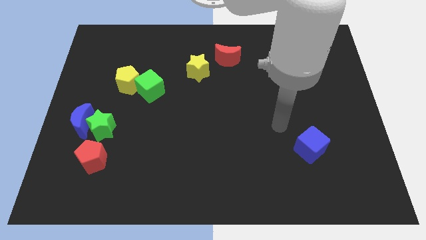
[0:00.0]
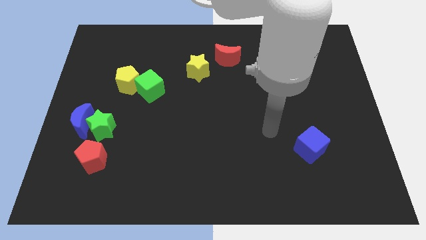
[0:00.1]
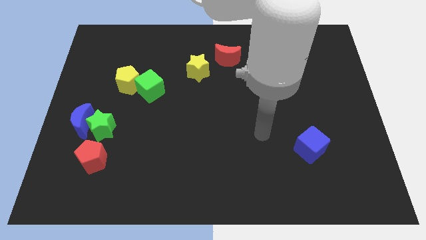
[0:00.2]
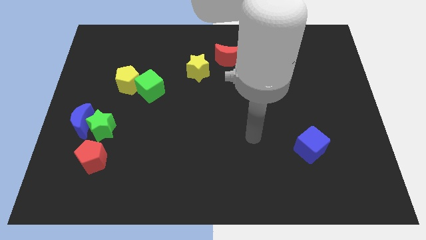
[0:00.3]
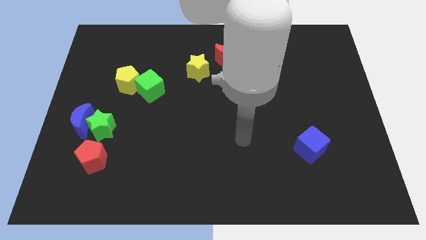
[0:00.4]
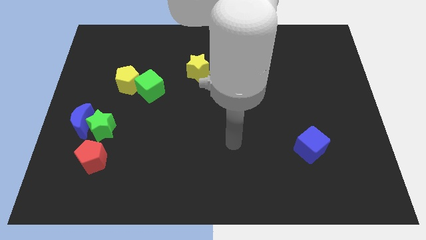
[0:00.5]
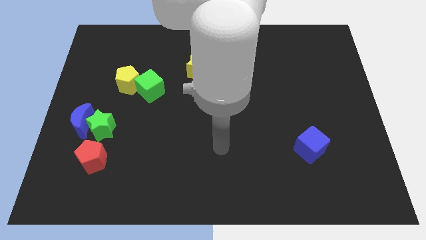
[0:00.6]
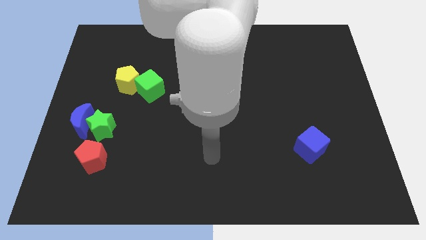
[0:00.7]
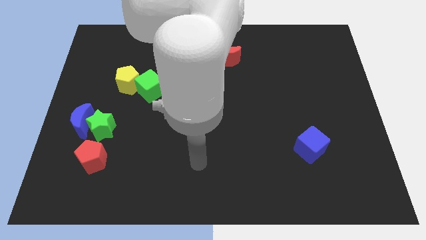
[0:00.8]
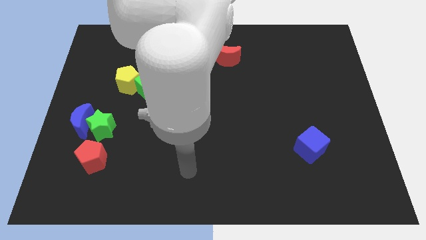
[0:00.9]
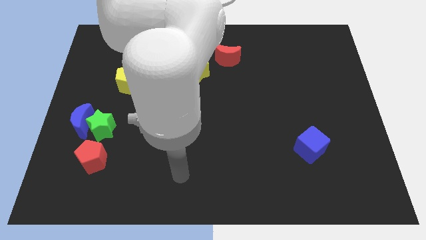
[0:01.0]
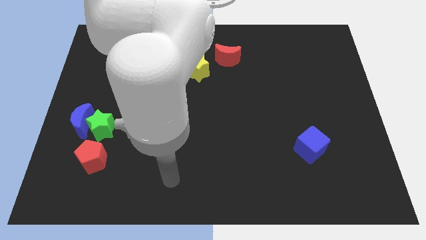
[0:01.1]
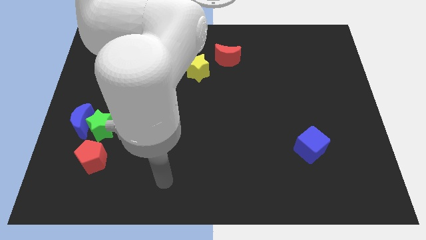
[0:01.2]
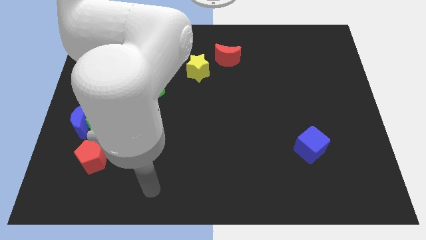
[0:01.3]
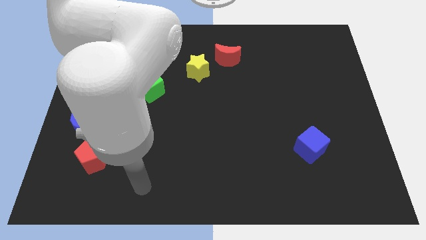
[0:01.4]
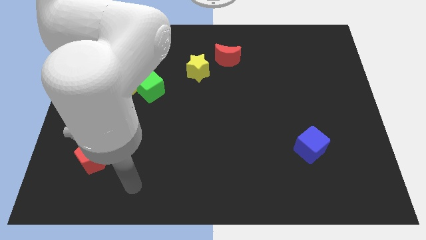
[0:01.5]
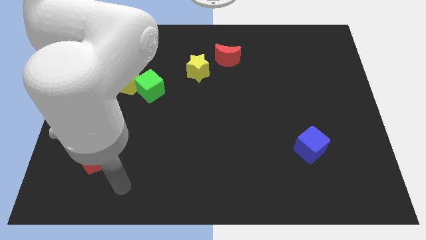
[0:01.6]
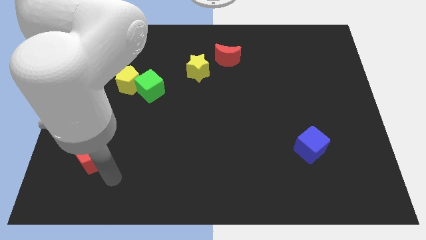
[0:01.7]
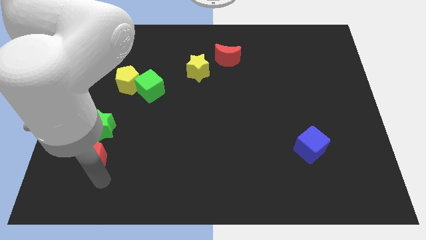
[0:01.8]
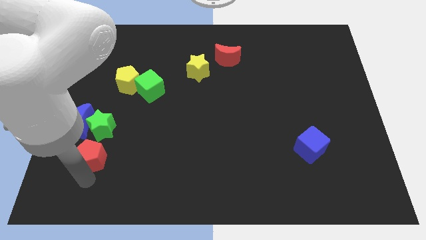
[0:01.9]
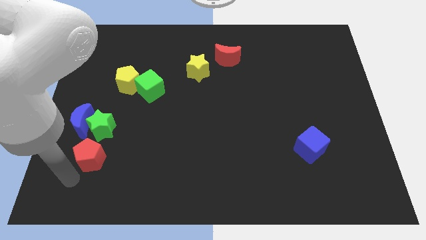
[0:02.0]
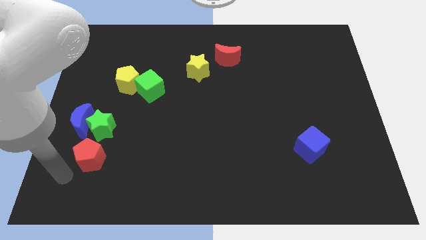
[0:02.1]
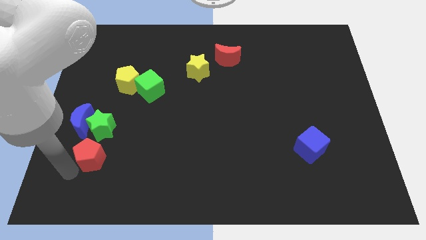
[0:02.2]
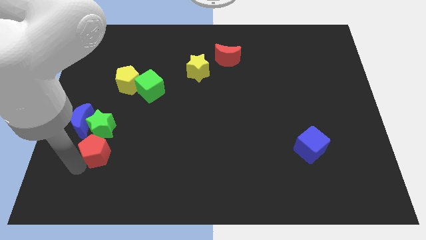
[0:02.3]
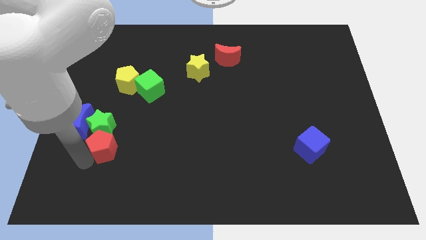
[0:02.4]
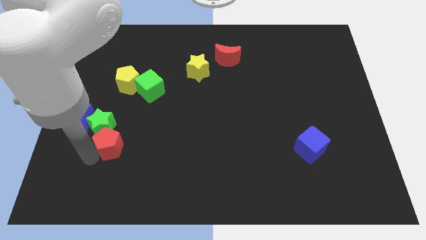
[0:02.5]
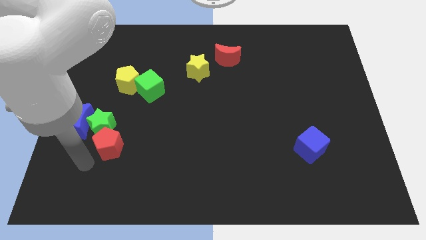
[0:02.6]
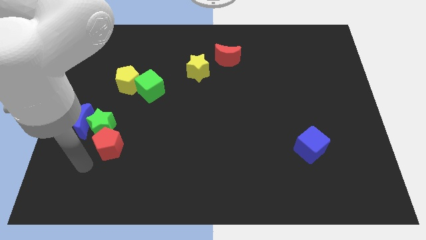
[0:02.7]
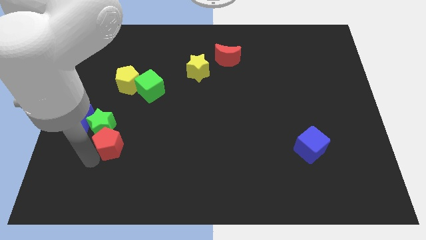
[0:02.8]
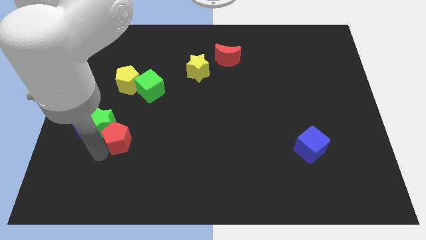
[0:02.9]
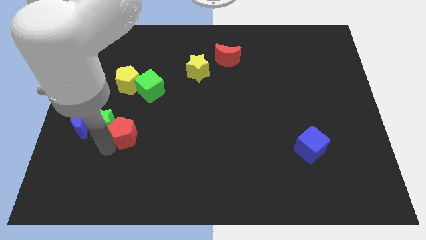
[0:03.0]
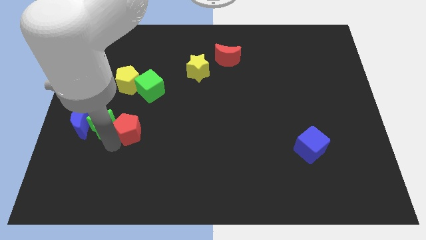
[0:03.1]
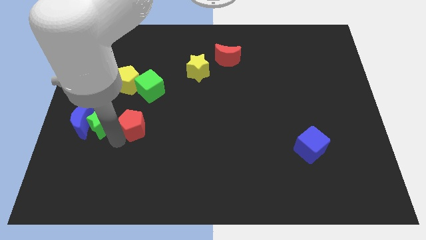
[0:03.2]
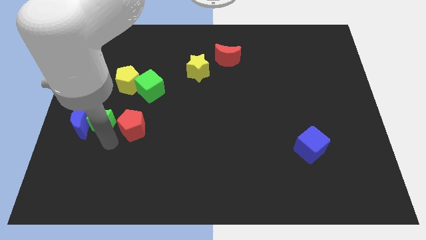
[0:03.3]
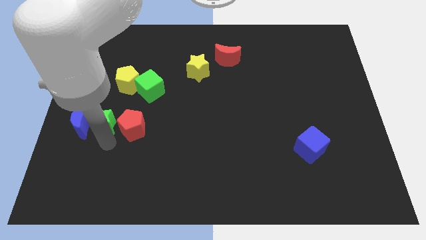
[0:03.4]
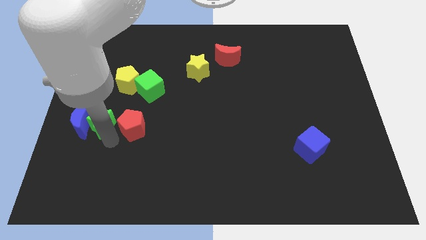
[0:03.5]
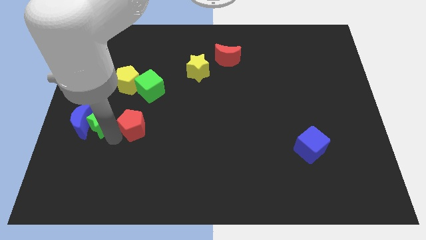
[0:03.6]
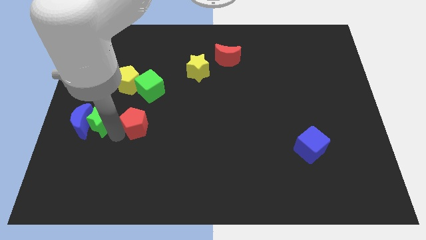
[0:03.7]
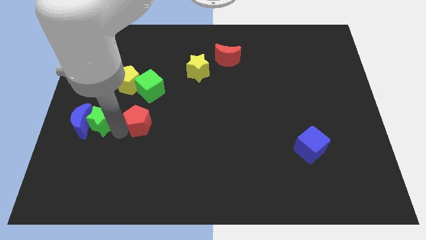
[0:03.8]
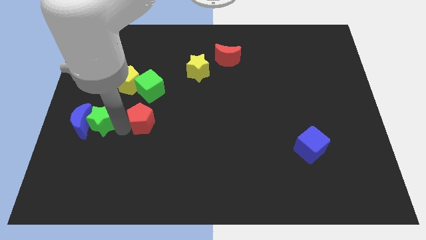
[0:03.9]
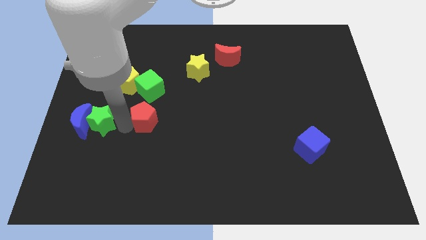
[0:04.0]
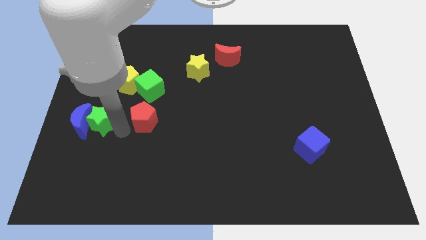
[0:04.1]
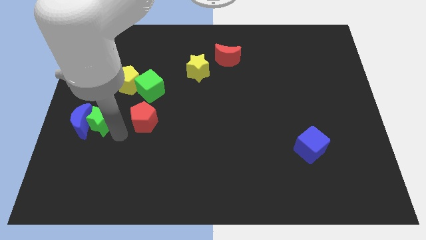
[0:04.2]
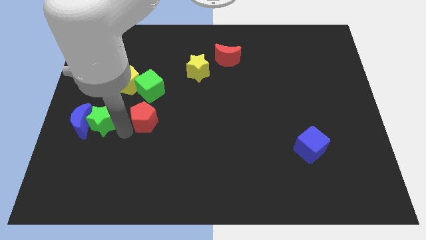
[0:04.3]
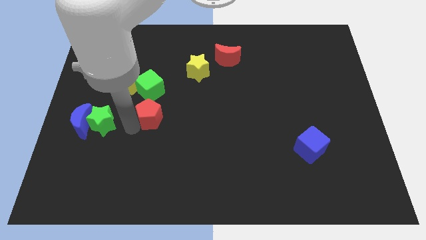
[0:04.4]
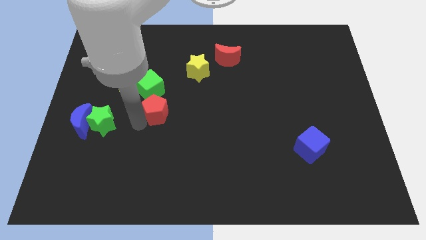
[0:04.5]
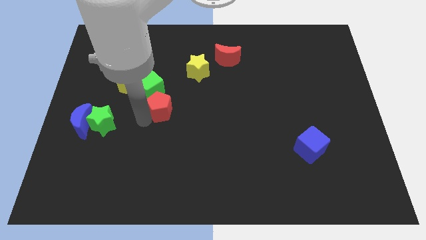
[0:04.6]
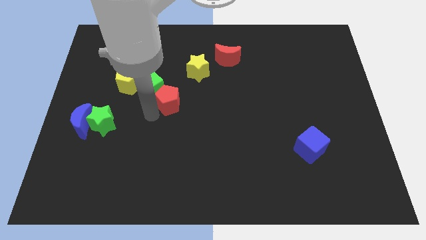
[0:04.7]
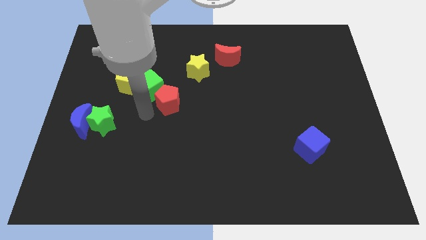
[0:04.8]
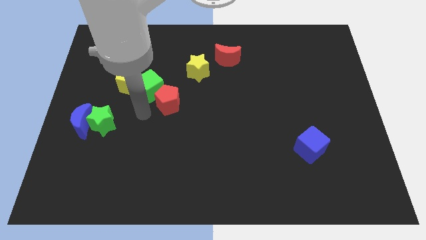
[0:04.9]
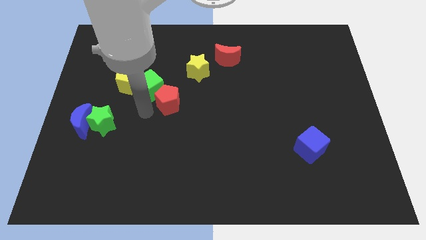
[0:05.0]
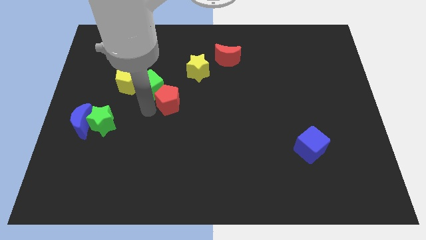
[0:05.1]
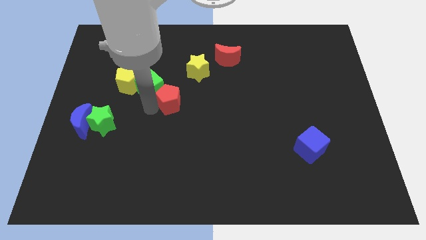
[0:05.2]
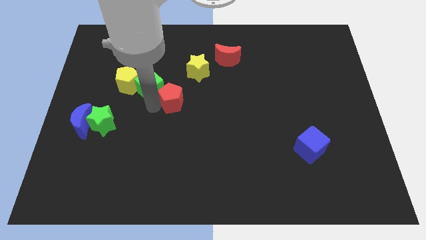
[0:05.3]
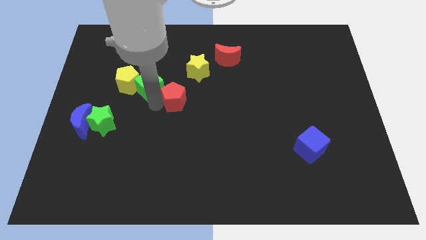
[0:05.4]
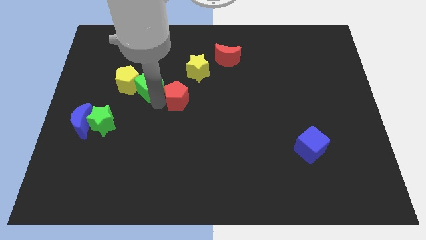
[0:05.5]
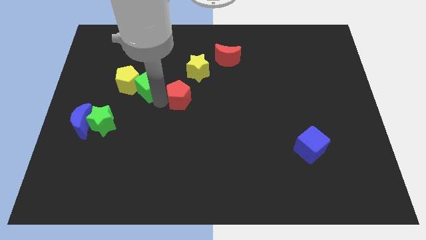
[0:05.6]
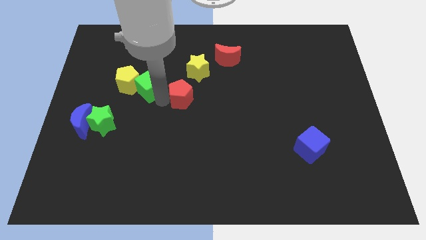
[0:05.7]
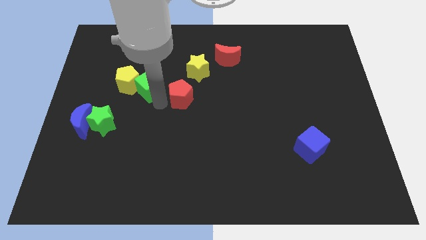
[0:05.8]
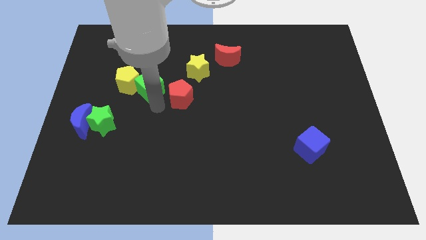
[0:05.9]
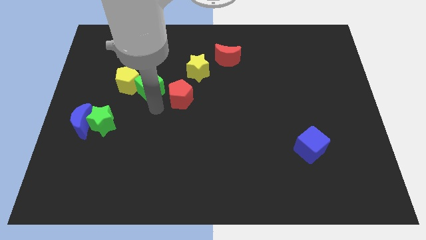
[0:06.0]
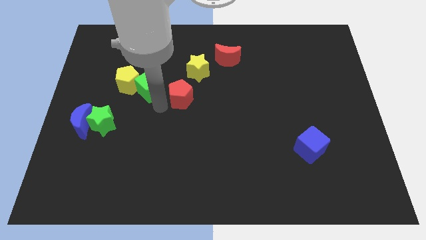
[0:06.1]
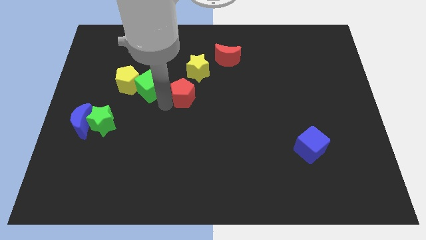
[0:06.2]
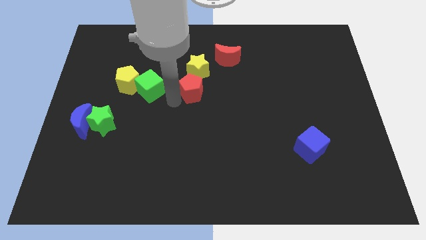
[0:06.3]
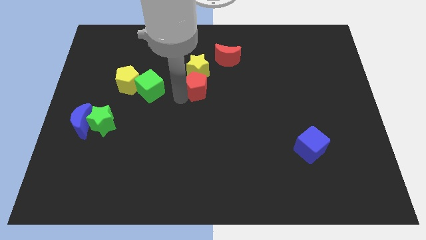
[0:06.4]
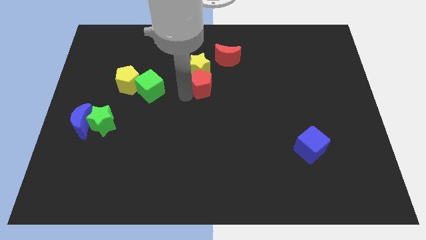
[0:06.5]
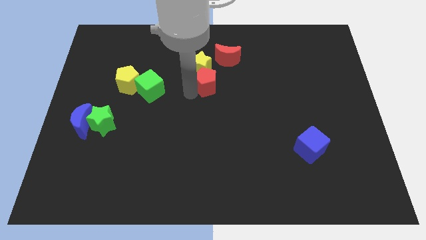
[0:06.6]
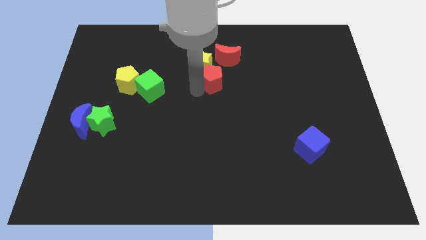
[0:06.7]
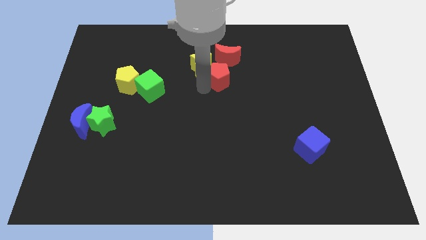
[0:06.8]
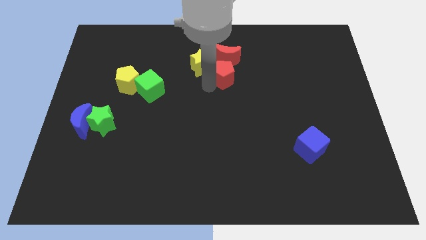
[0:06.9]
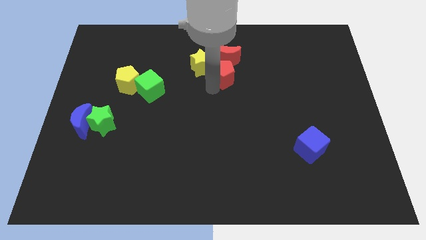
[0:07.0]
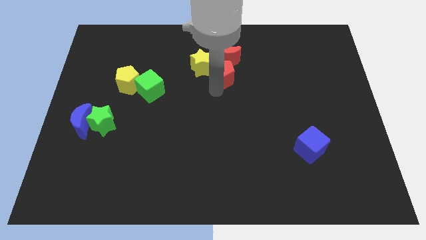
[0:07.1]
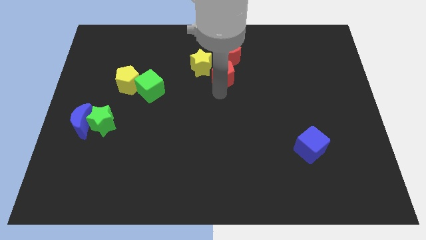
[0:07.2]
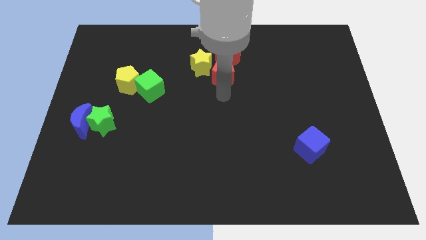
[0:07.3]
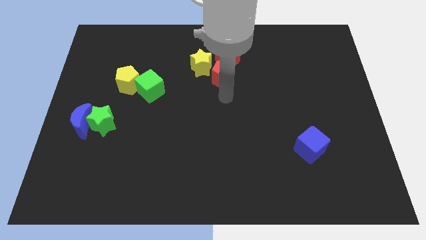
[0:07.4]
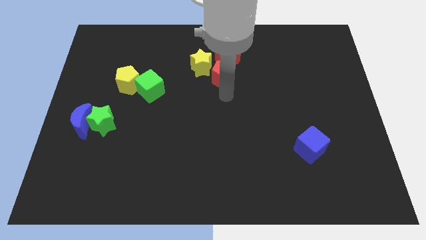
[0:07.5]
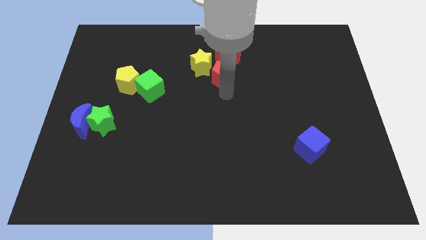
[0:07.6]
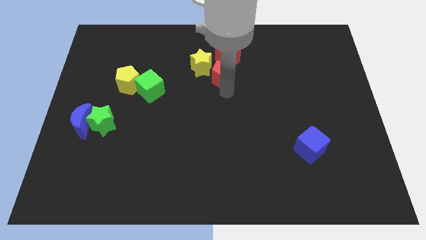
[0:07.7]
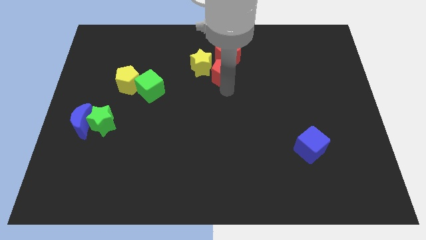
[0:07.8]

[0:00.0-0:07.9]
move the red pentagon towards the red moon
